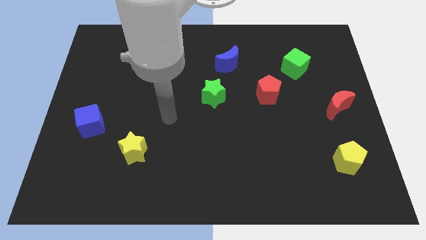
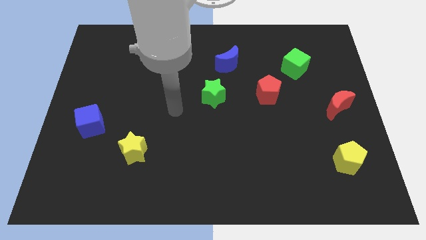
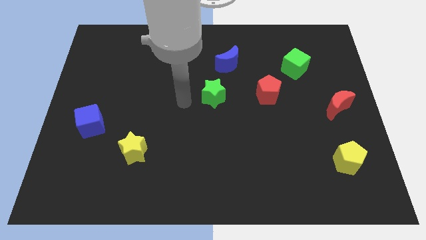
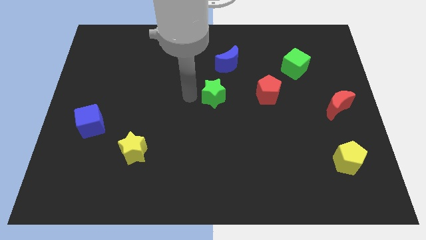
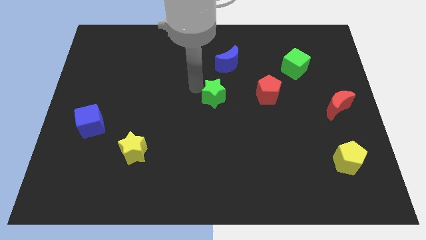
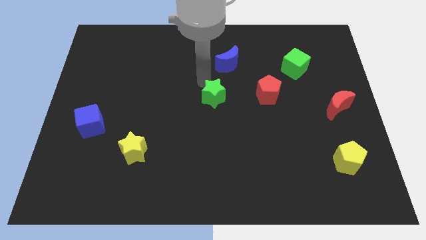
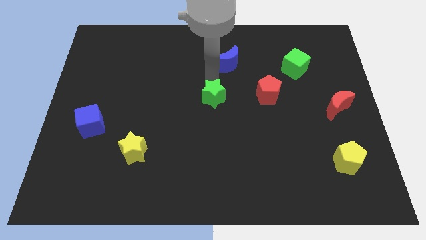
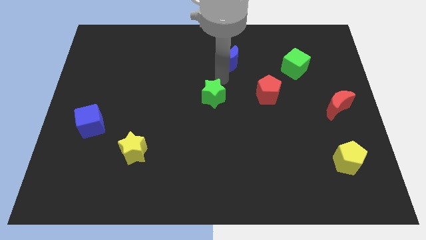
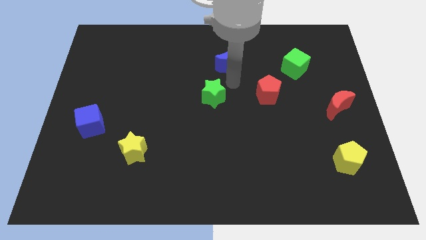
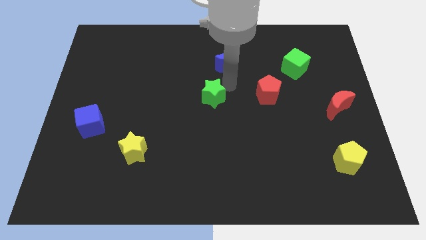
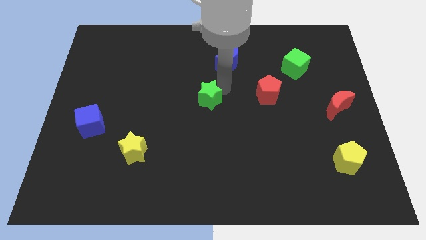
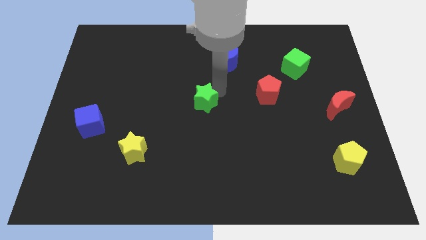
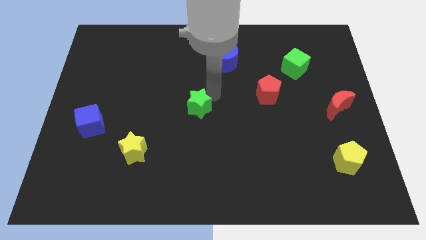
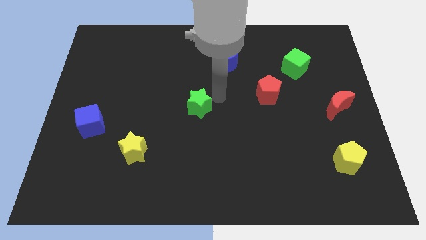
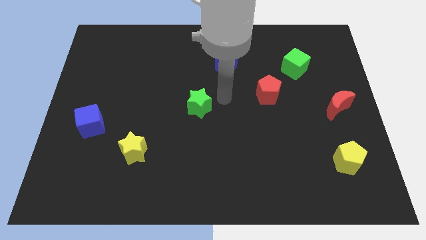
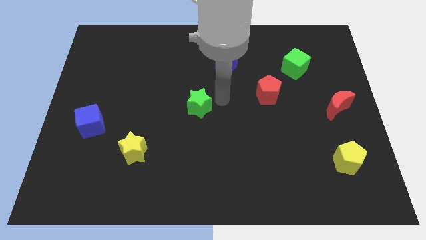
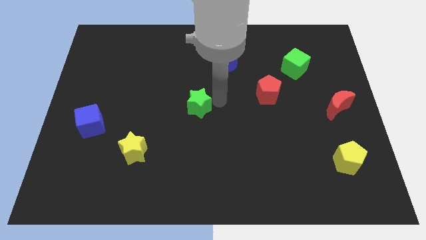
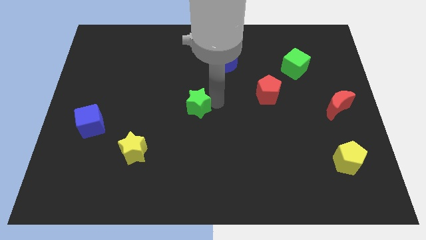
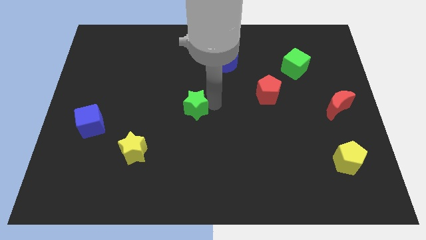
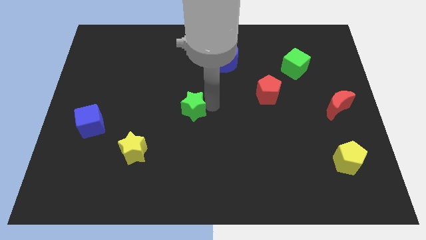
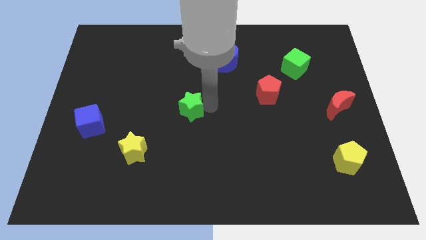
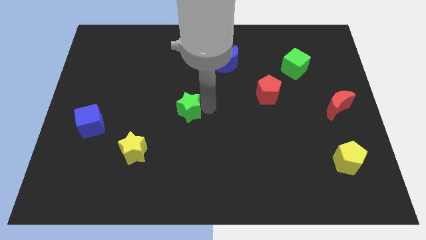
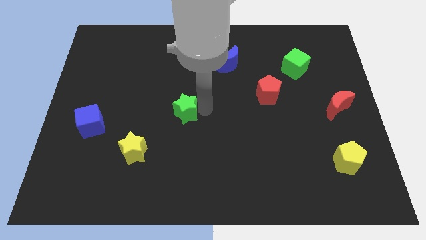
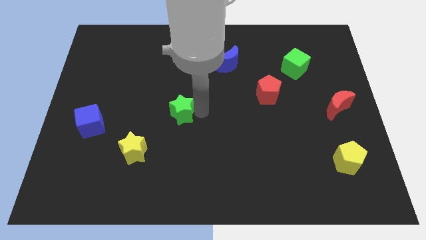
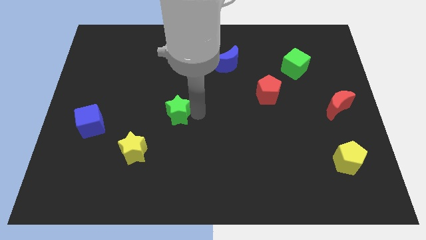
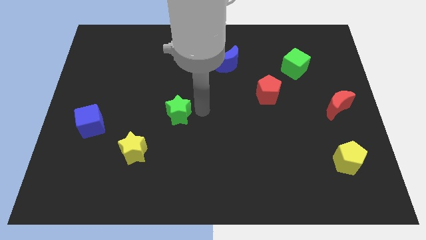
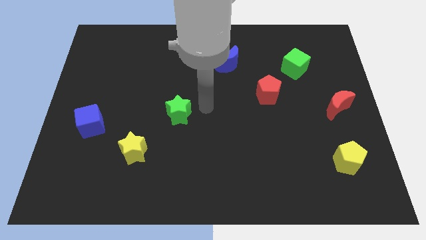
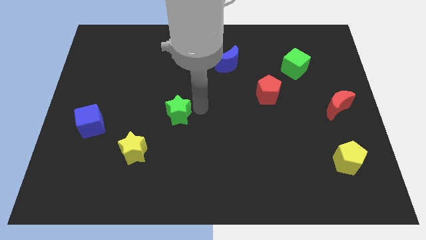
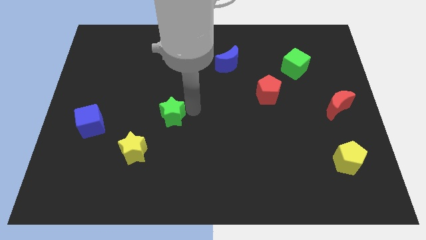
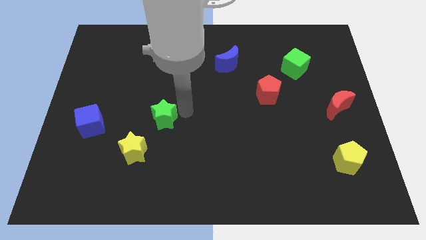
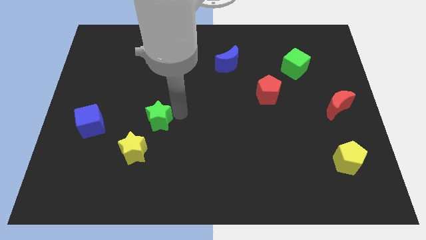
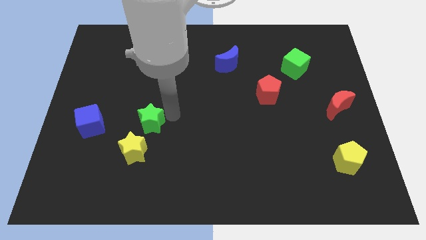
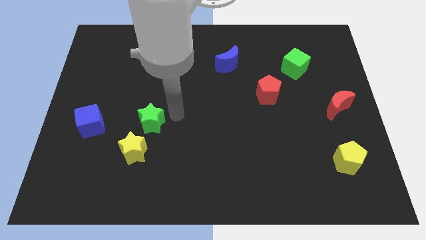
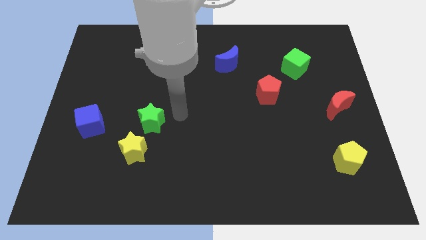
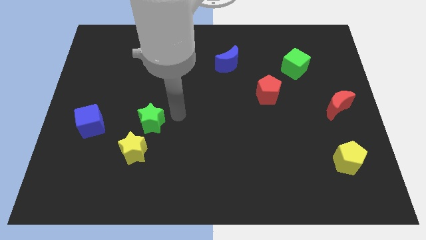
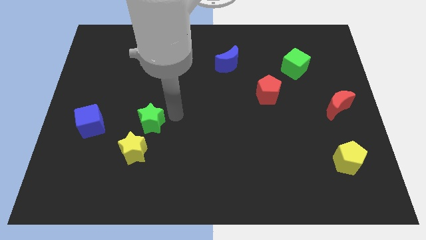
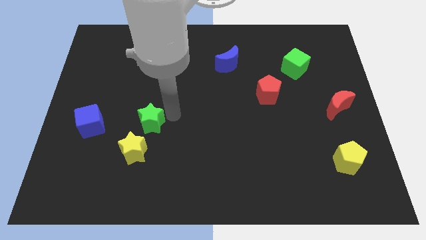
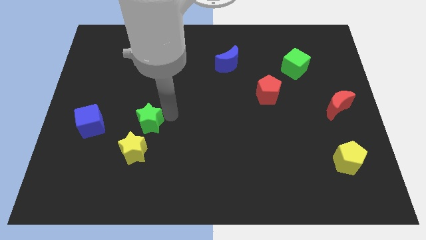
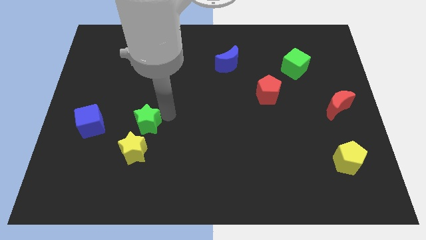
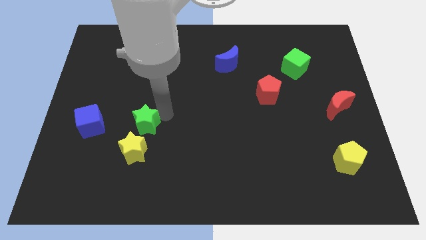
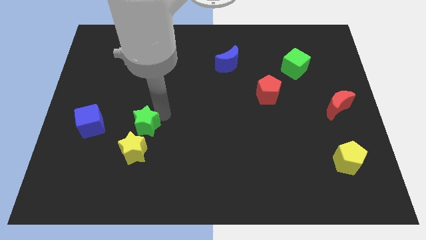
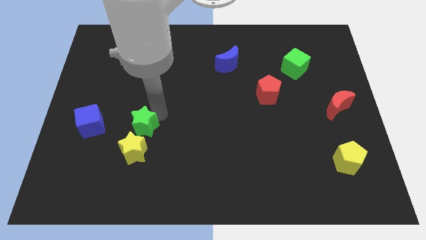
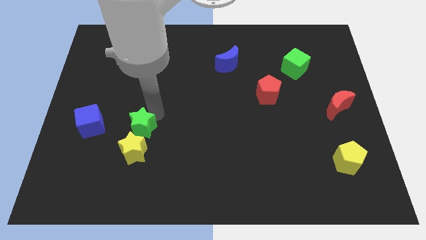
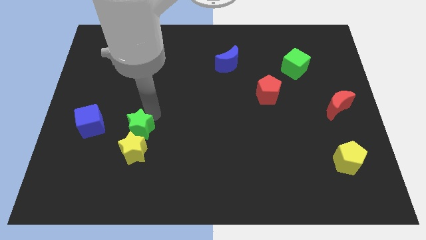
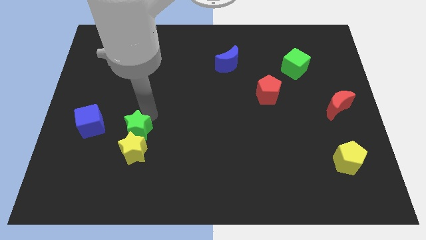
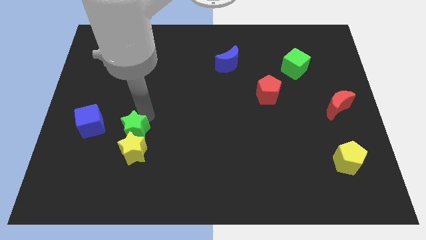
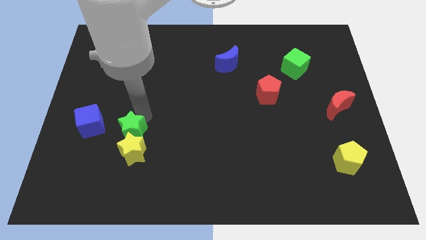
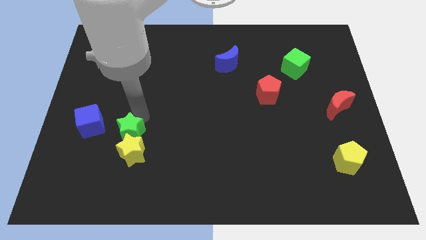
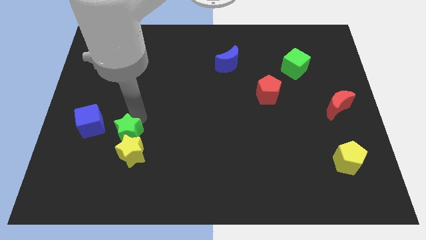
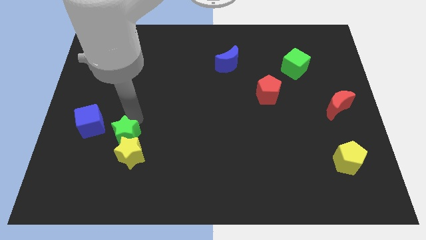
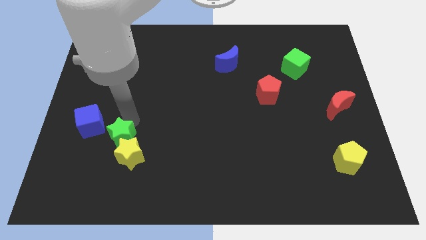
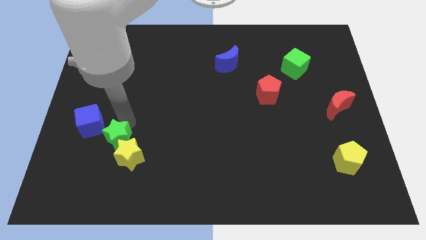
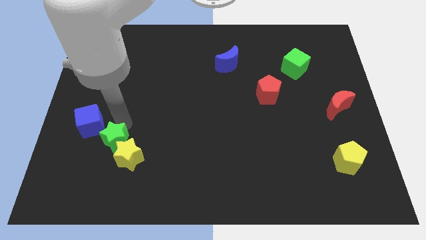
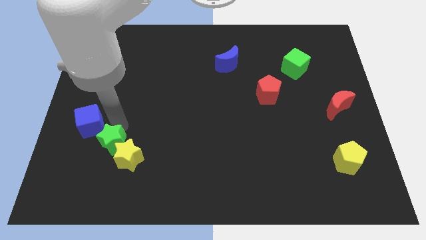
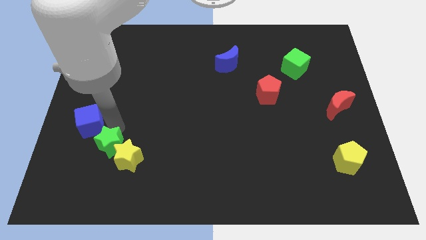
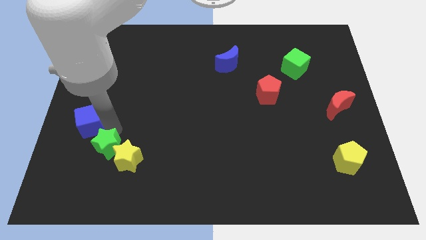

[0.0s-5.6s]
put the green star to the bottom side of the blue cube

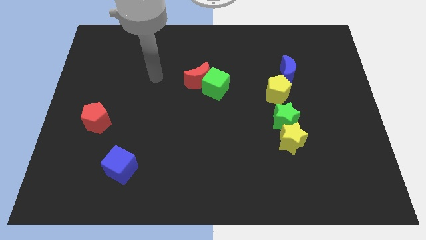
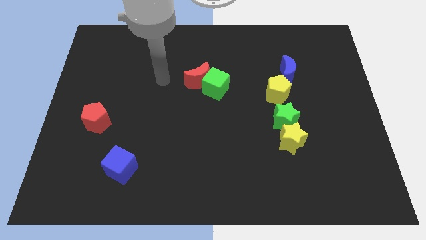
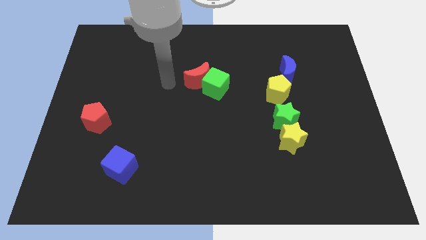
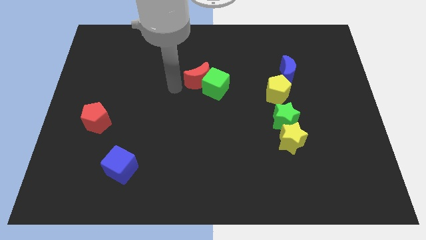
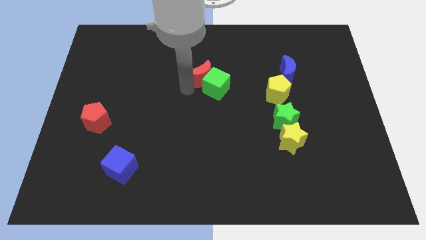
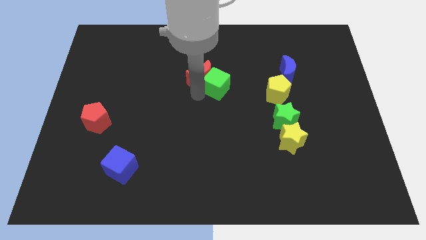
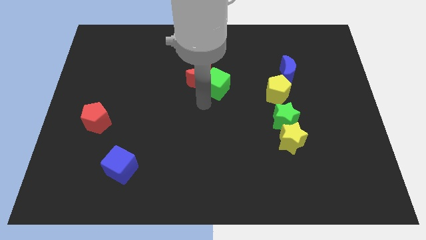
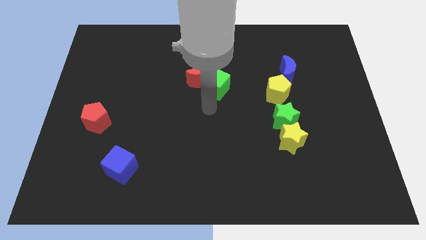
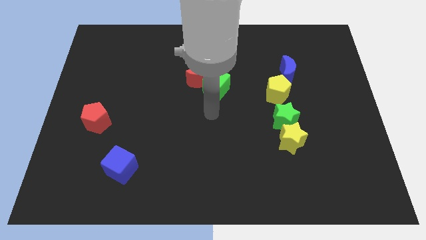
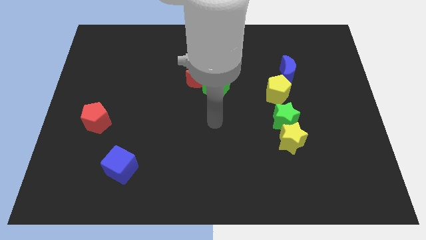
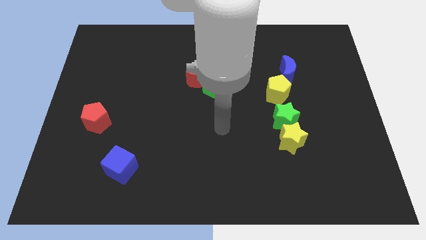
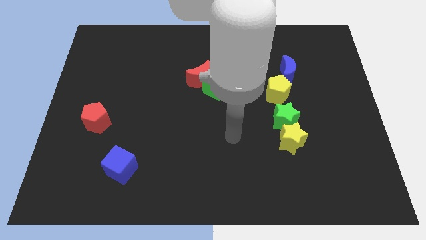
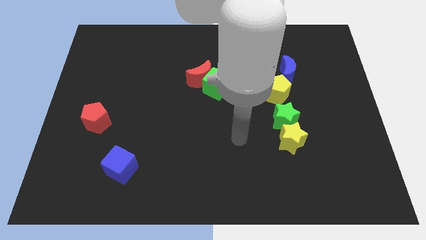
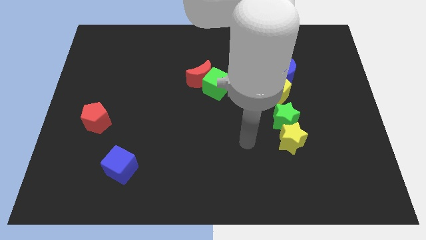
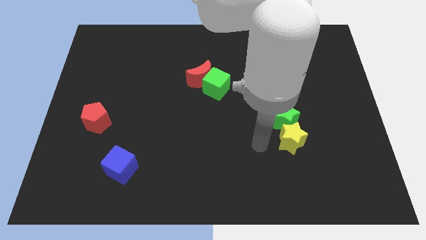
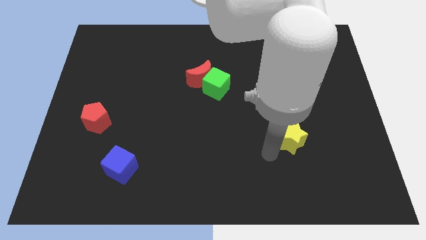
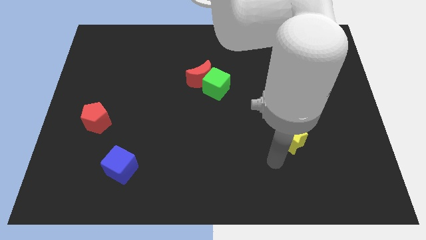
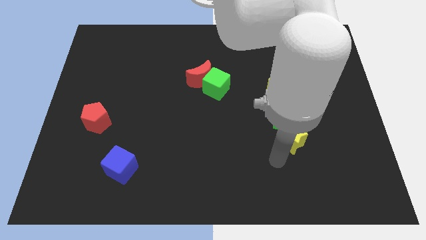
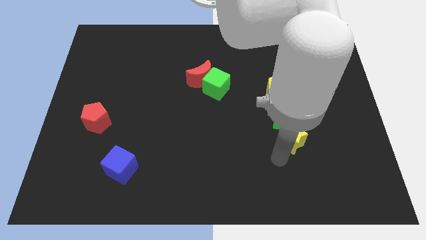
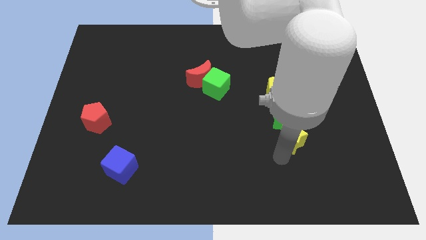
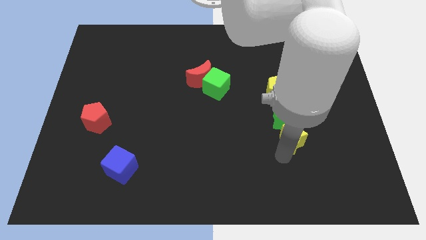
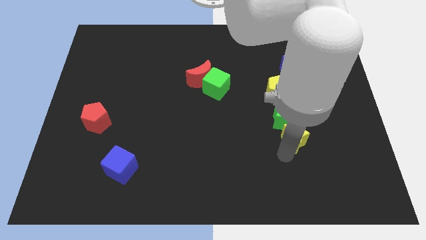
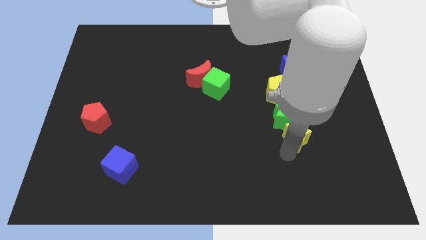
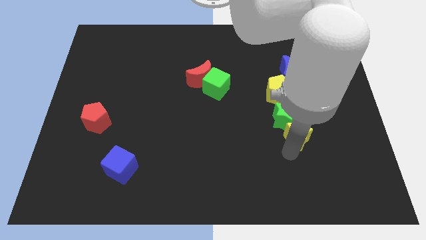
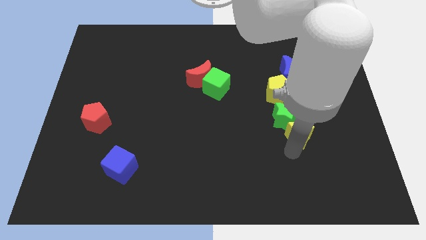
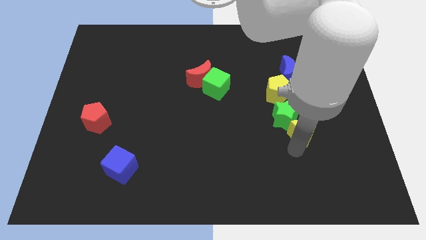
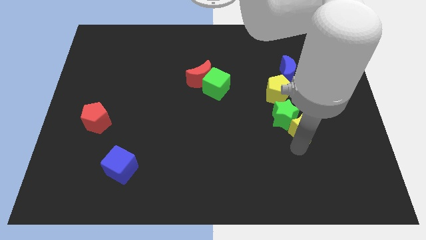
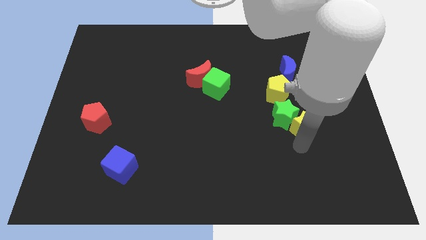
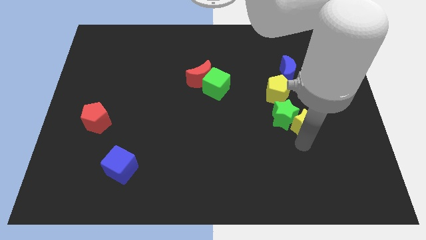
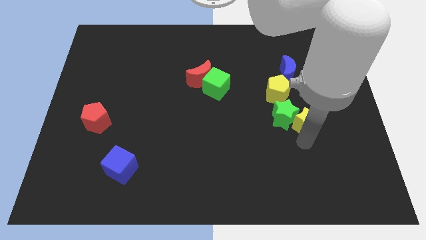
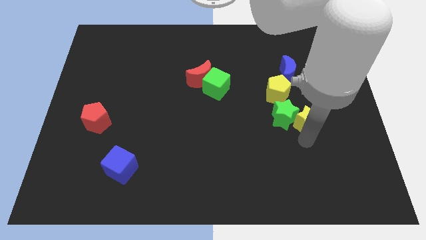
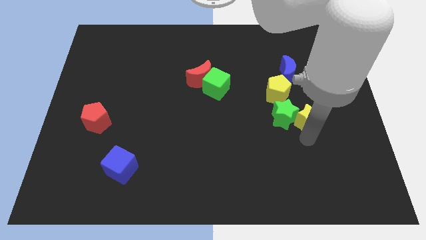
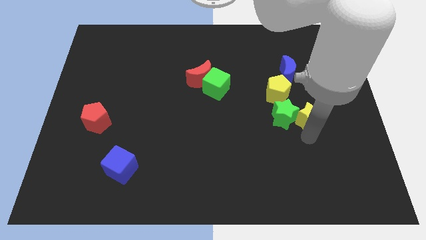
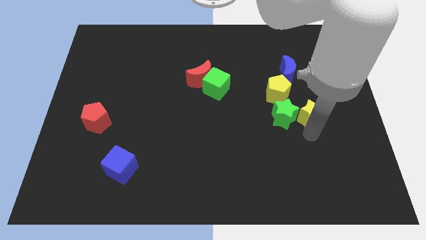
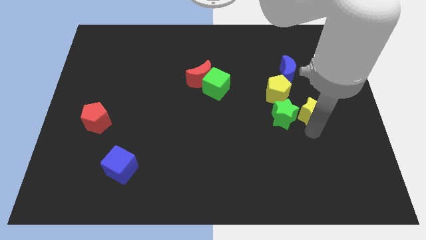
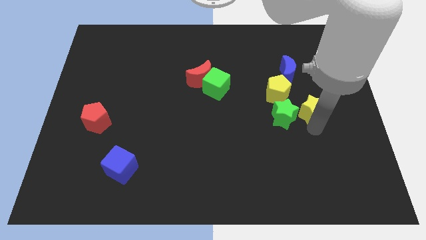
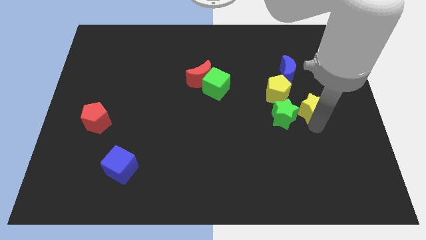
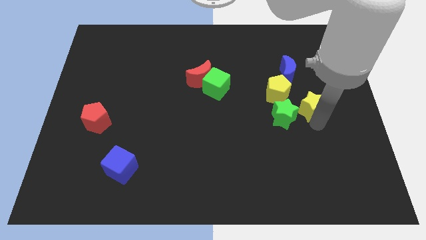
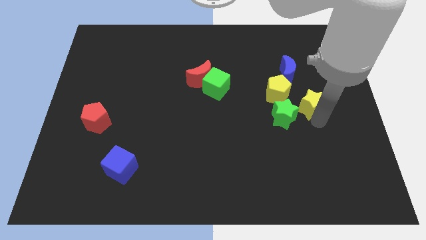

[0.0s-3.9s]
push the yellow star to the bottom right of the blue moon
